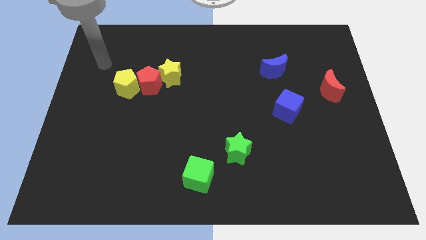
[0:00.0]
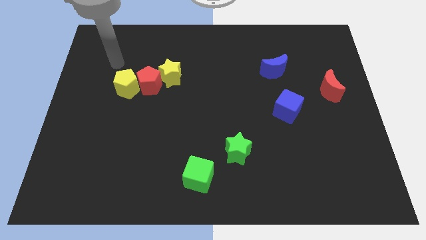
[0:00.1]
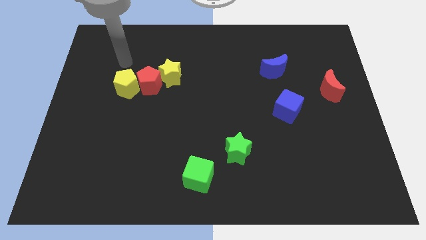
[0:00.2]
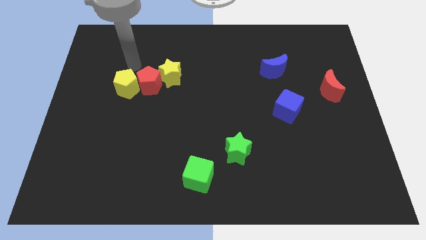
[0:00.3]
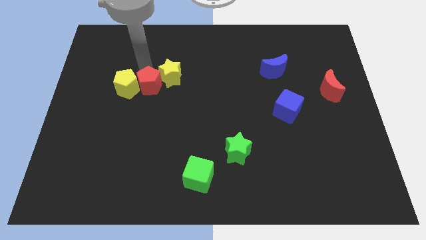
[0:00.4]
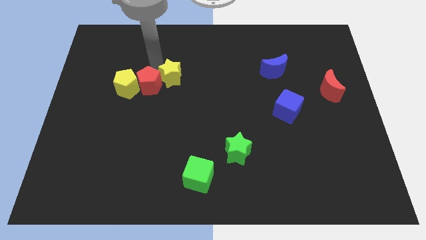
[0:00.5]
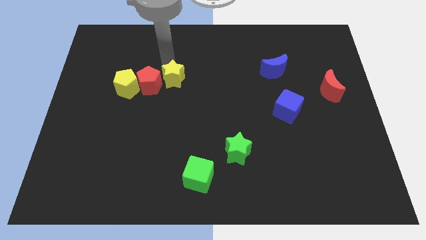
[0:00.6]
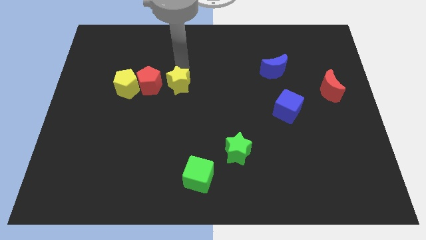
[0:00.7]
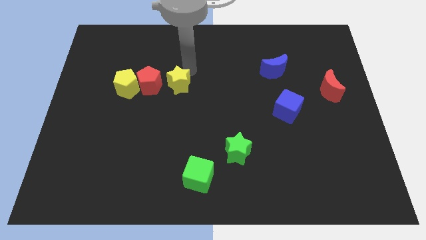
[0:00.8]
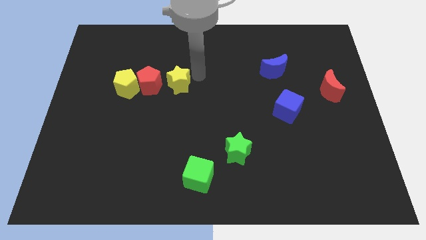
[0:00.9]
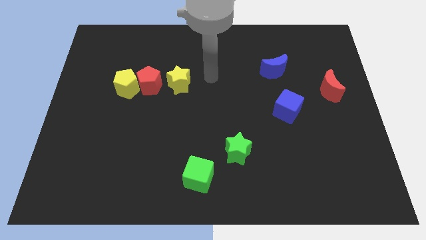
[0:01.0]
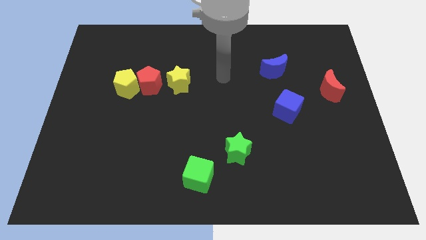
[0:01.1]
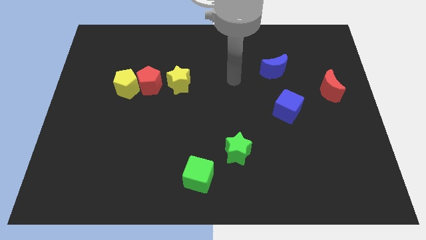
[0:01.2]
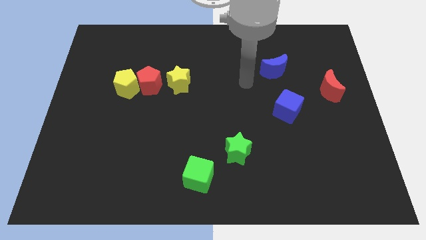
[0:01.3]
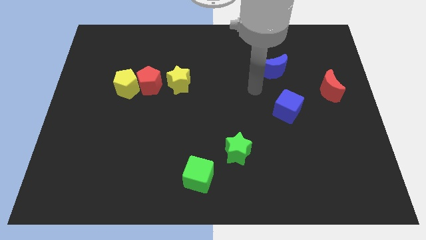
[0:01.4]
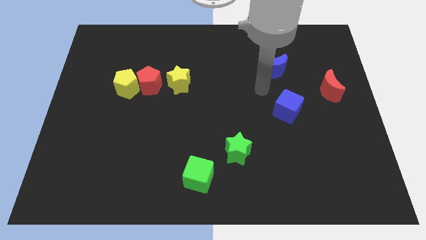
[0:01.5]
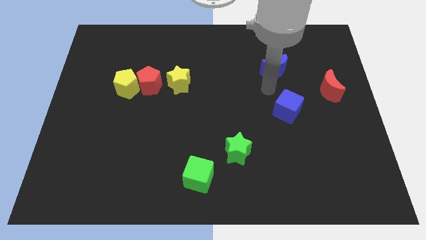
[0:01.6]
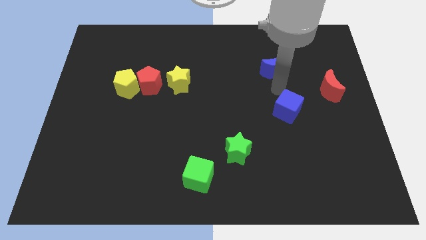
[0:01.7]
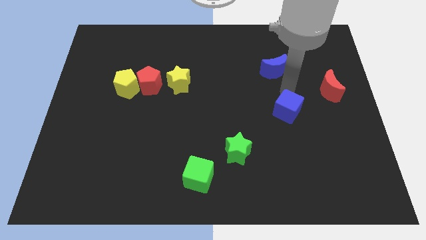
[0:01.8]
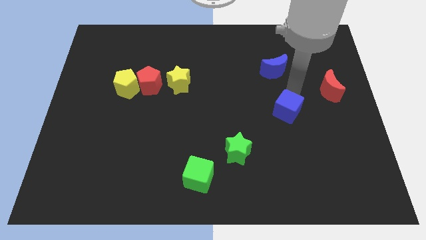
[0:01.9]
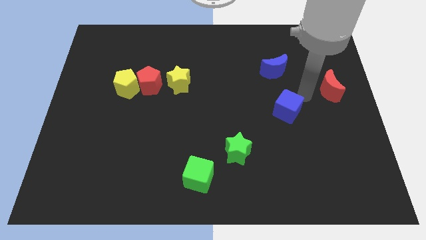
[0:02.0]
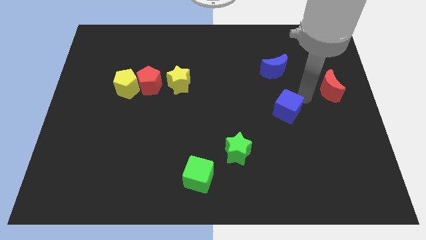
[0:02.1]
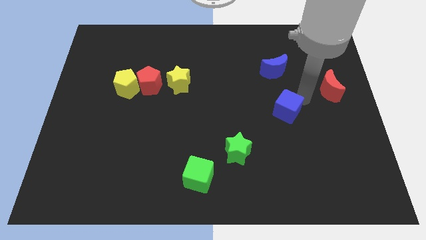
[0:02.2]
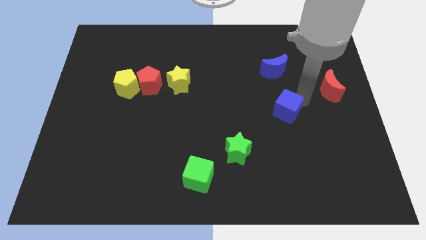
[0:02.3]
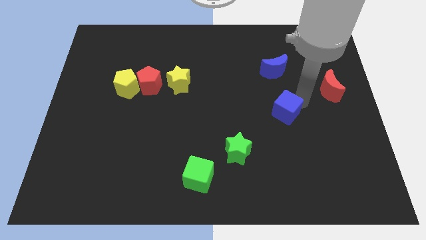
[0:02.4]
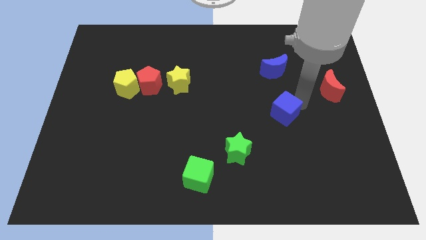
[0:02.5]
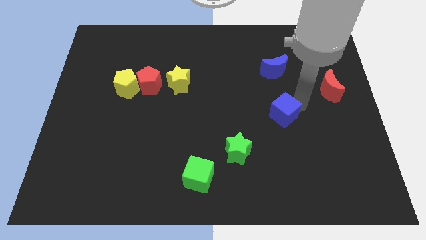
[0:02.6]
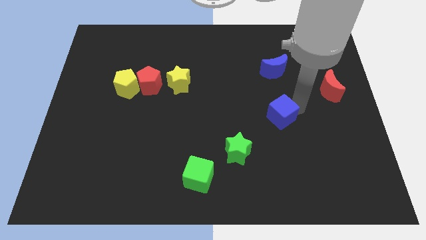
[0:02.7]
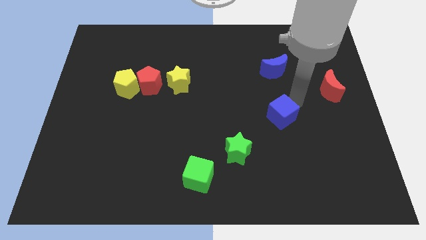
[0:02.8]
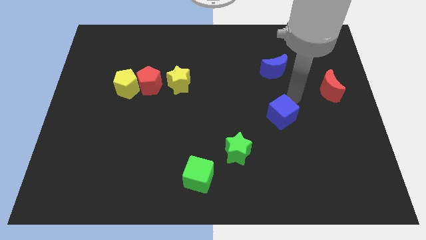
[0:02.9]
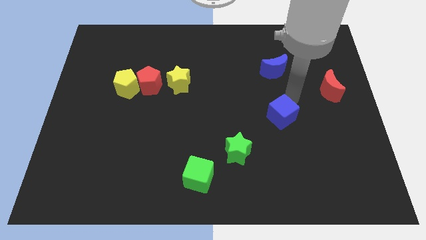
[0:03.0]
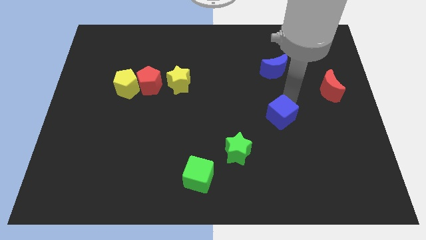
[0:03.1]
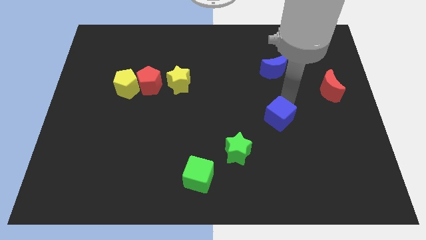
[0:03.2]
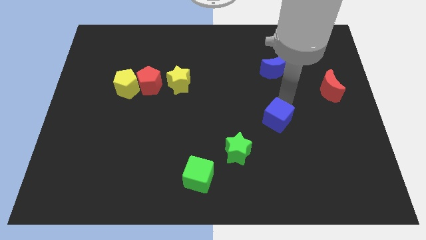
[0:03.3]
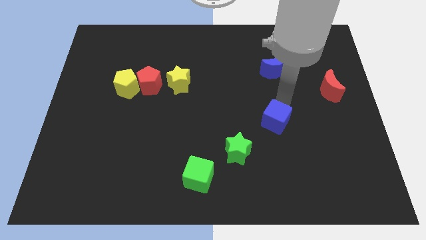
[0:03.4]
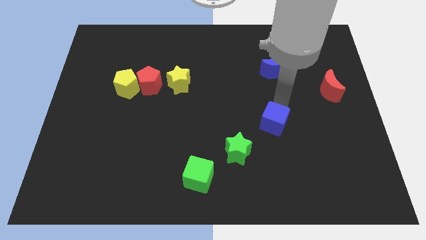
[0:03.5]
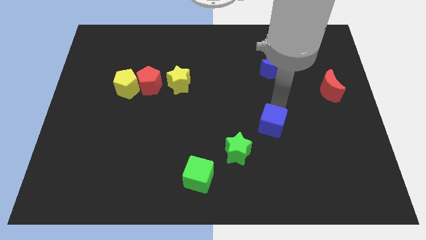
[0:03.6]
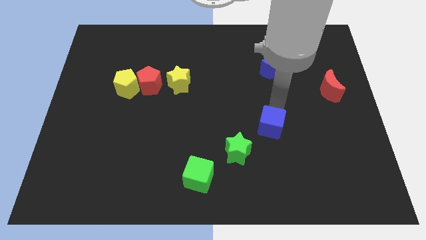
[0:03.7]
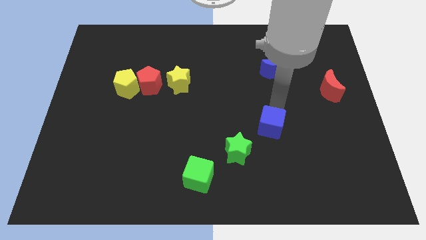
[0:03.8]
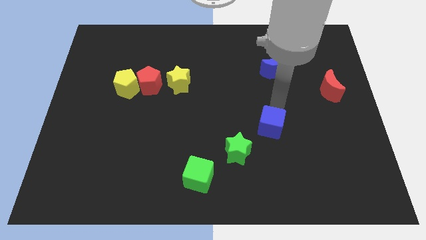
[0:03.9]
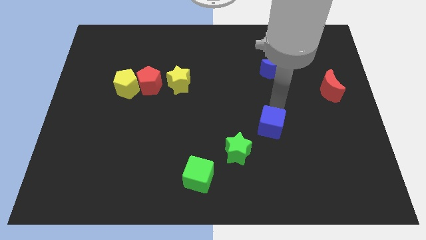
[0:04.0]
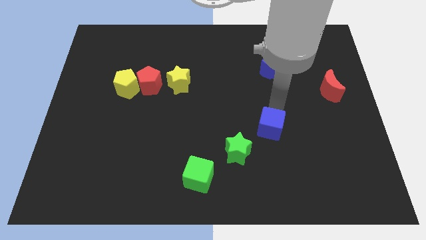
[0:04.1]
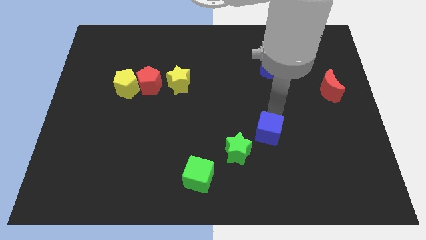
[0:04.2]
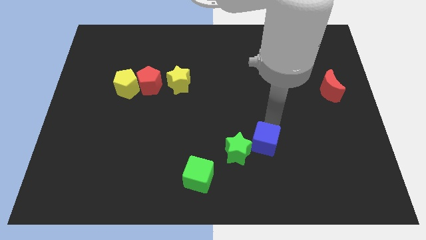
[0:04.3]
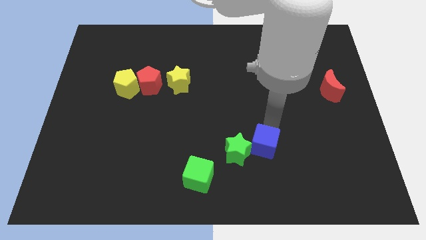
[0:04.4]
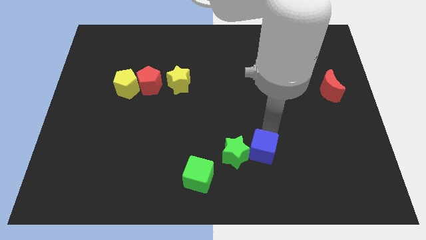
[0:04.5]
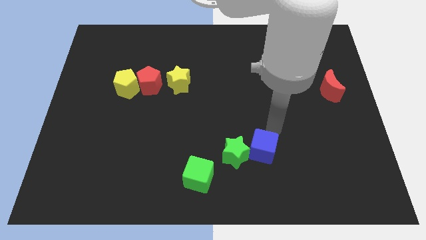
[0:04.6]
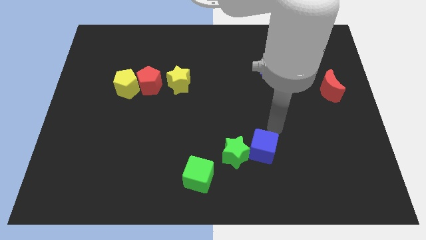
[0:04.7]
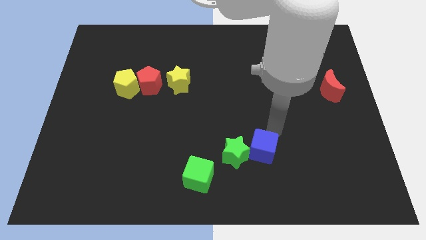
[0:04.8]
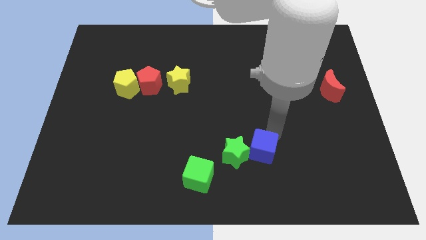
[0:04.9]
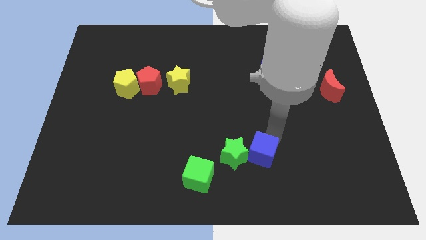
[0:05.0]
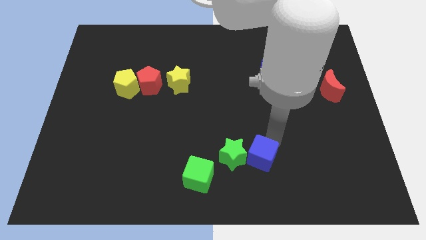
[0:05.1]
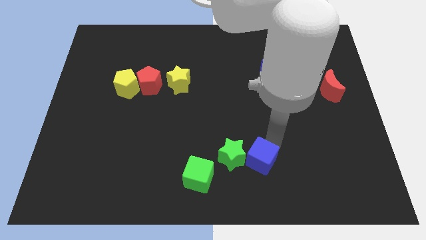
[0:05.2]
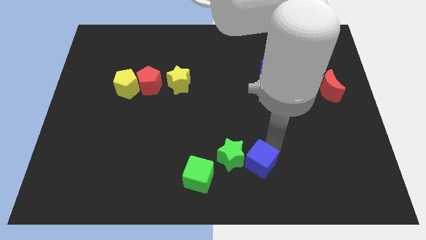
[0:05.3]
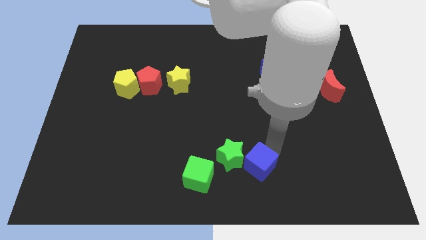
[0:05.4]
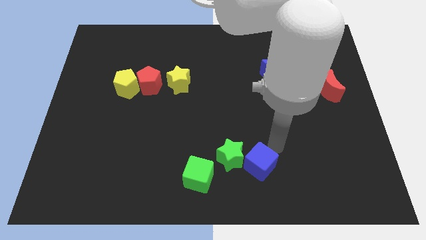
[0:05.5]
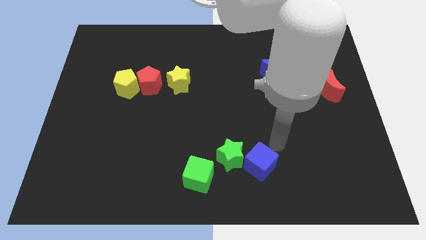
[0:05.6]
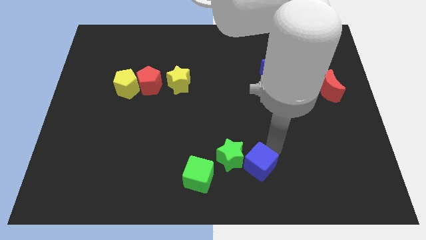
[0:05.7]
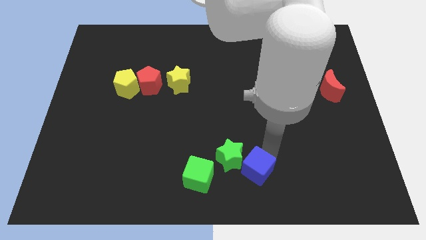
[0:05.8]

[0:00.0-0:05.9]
move the blue cube to the bottom
